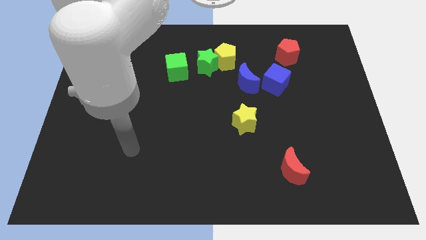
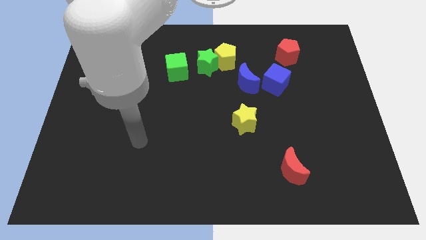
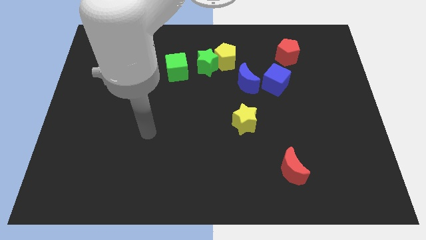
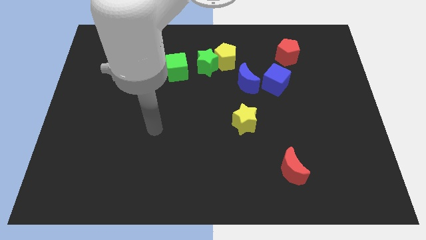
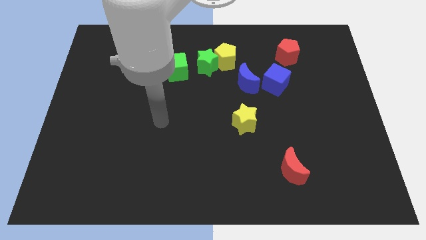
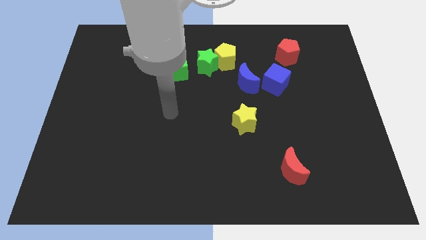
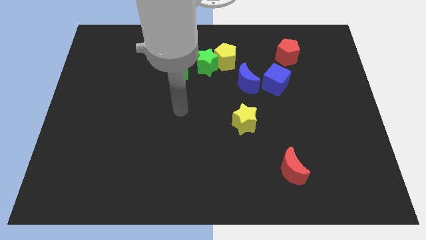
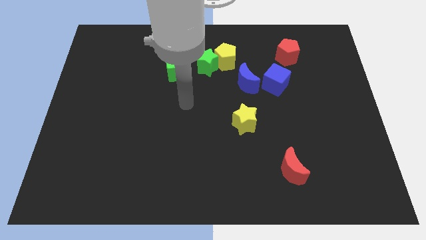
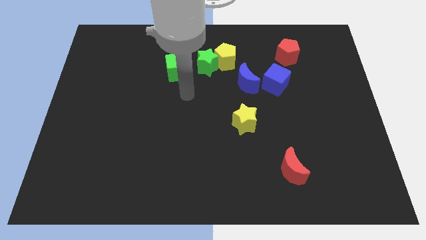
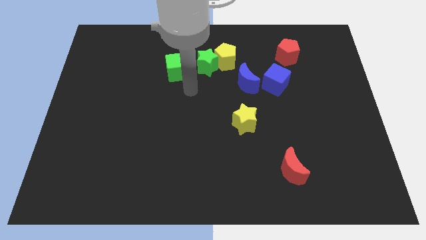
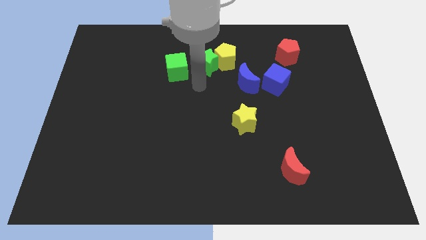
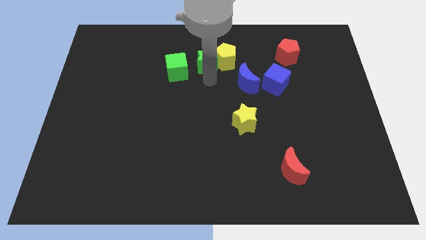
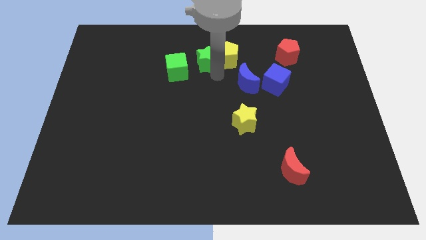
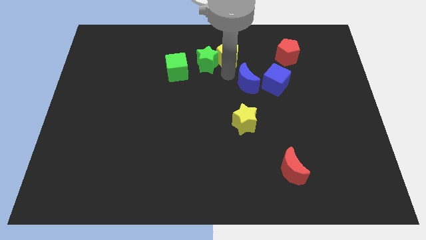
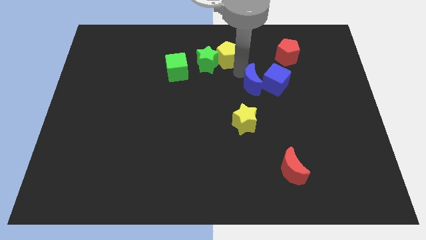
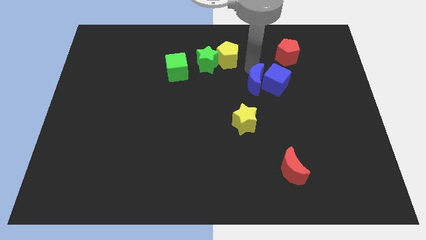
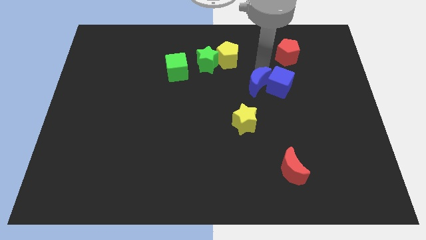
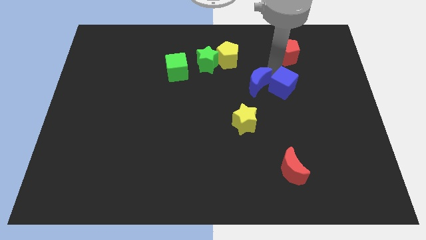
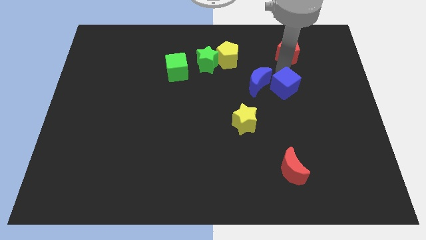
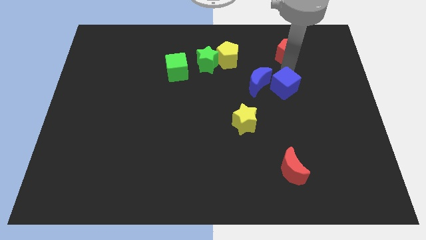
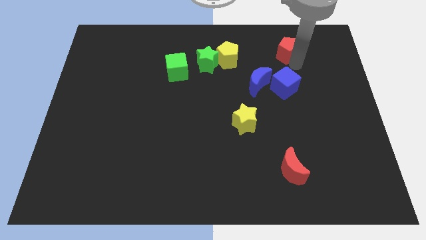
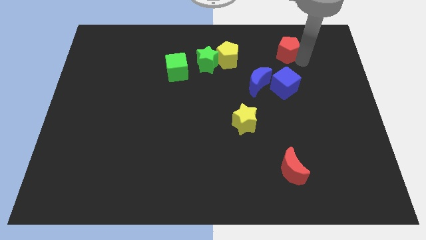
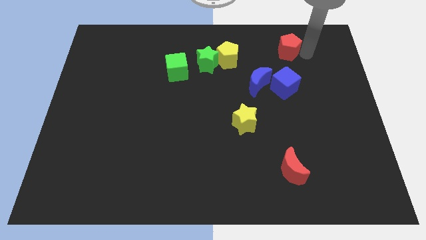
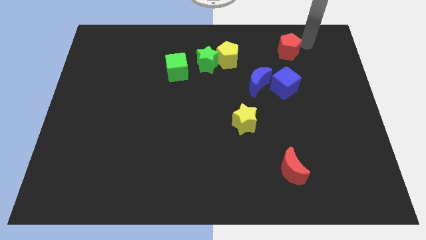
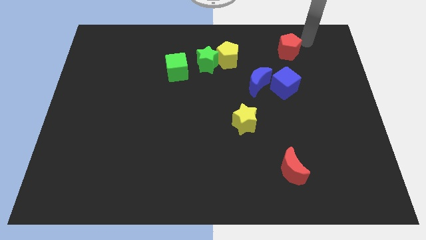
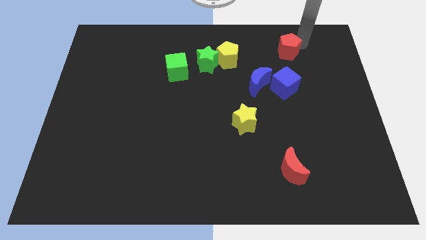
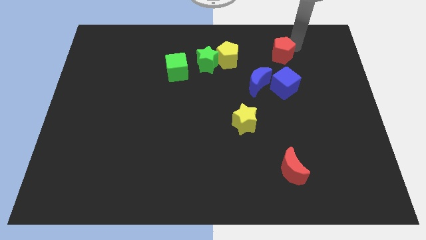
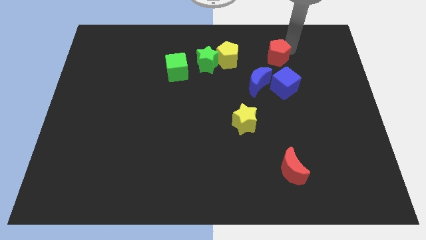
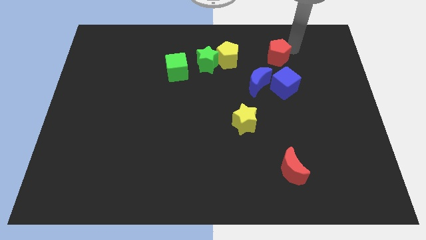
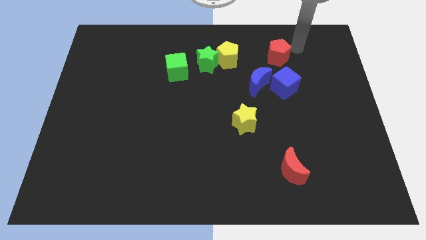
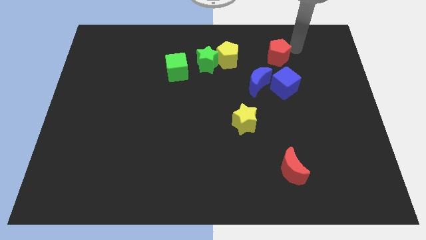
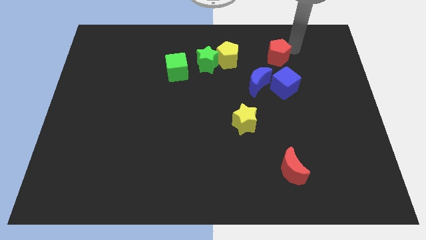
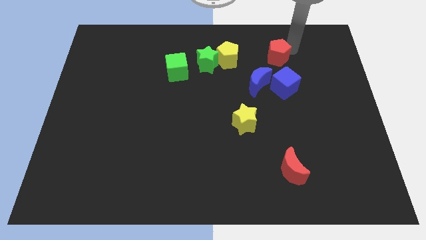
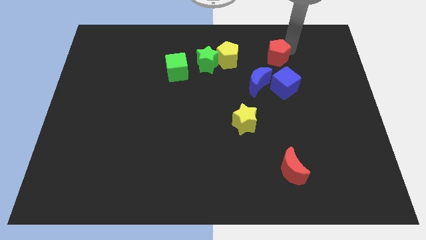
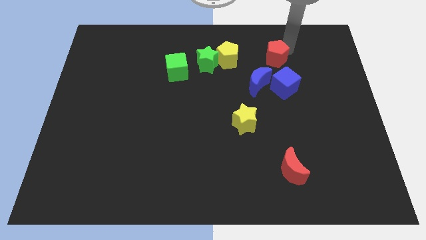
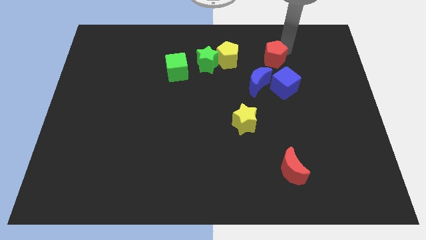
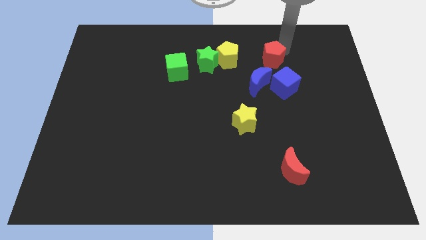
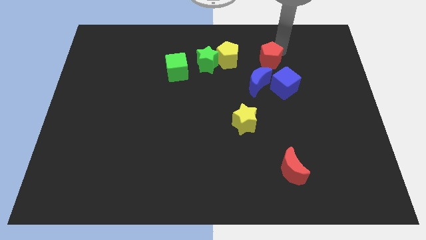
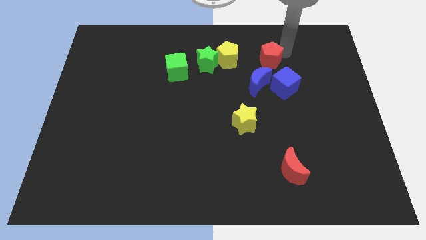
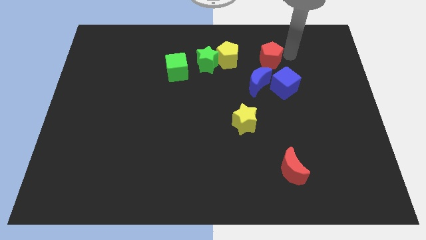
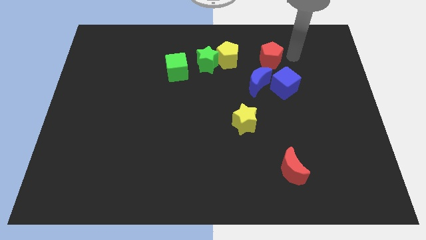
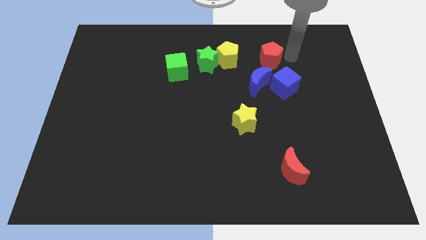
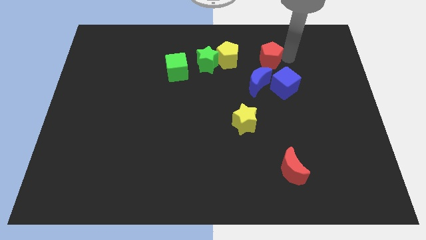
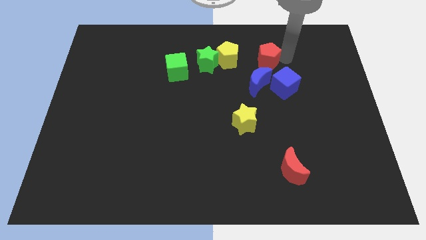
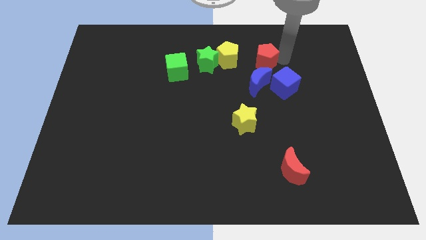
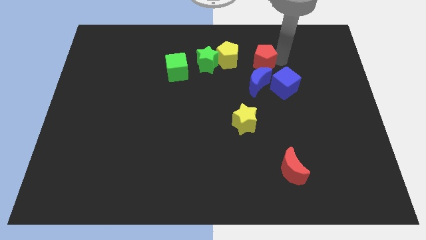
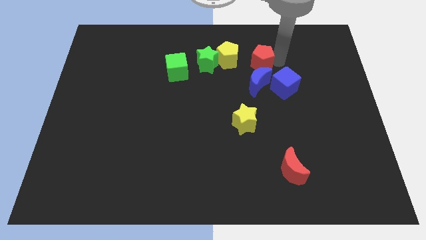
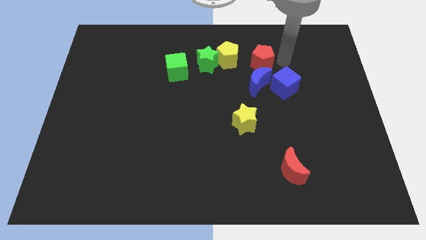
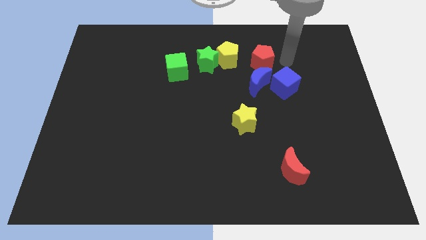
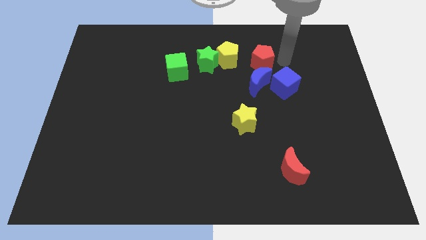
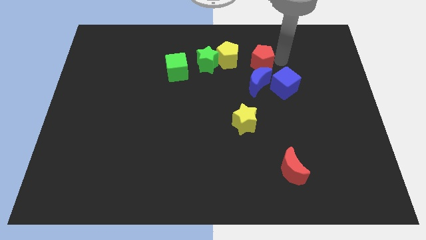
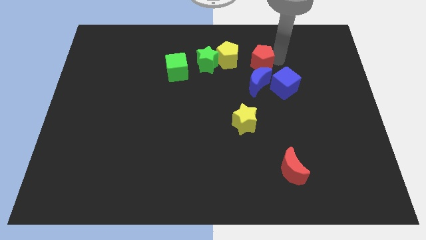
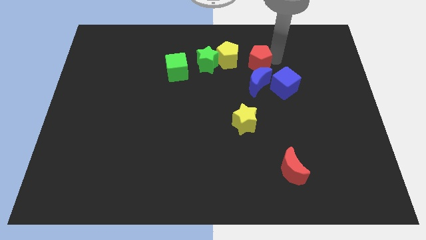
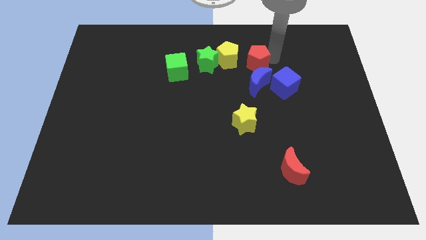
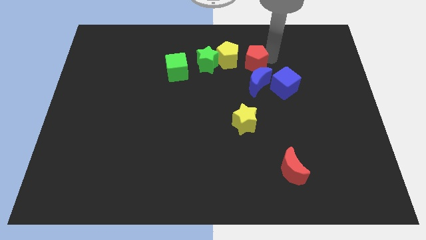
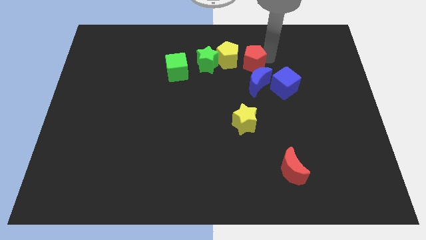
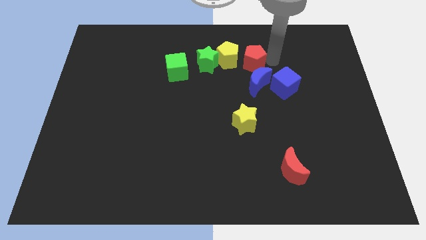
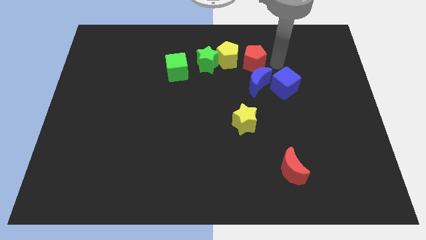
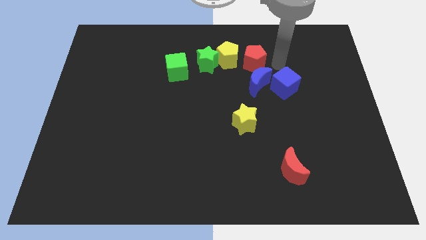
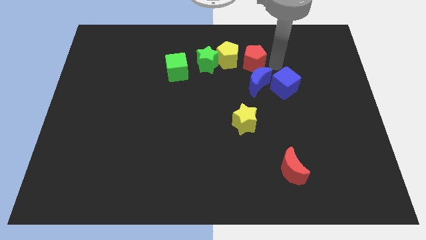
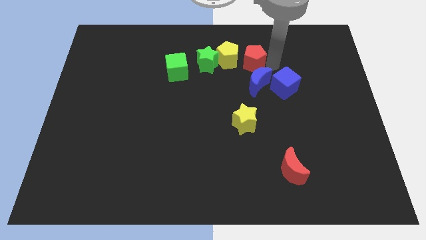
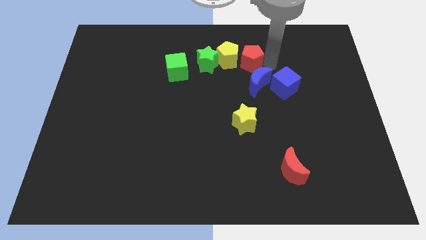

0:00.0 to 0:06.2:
put the red pentagon towards the yellow pentagon

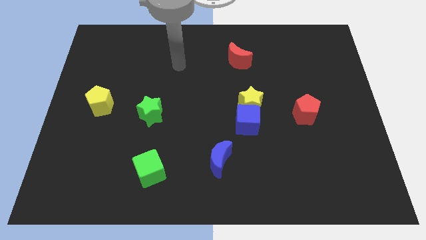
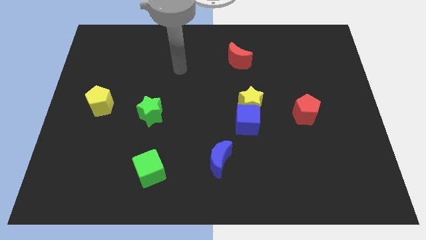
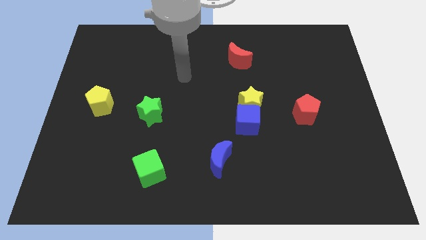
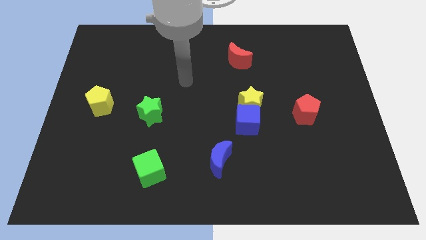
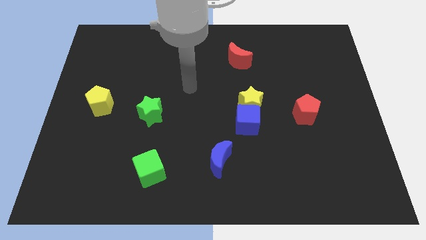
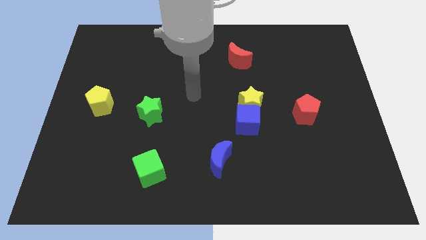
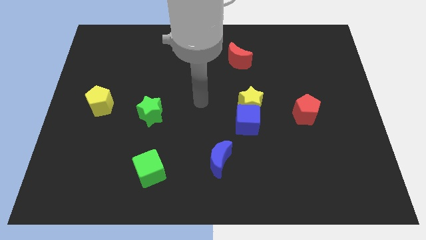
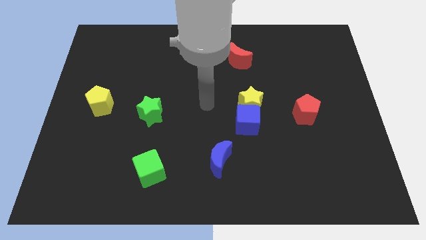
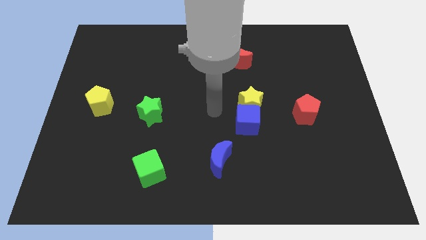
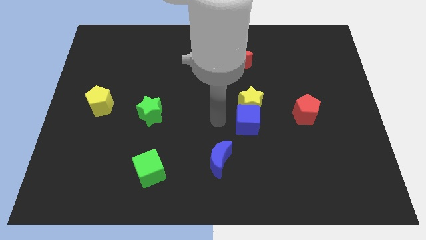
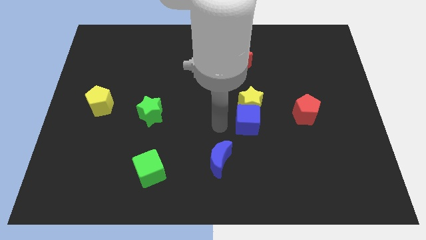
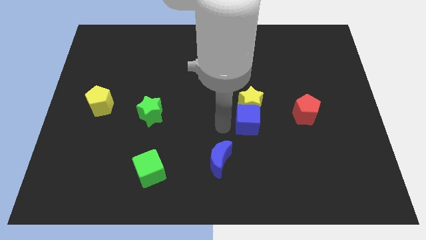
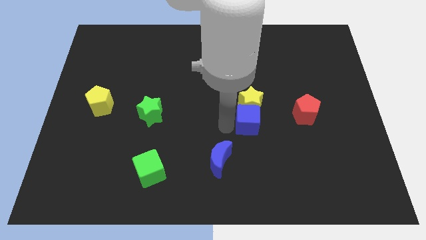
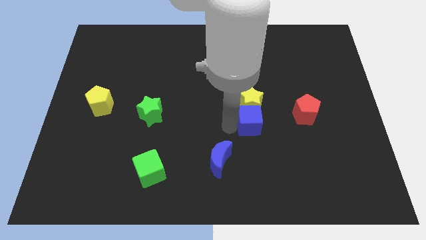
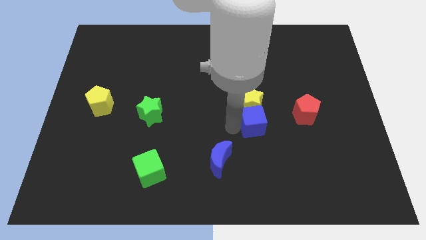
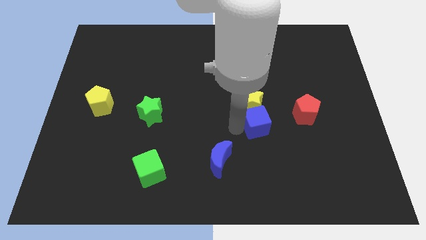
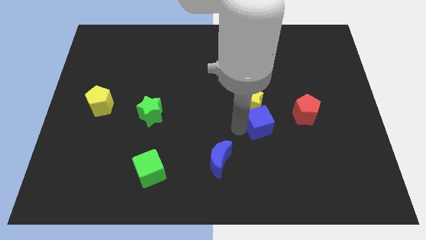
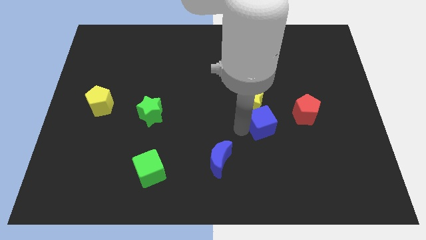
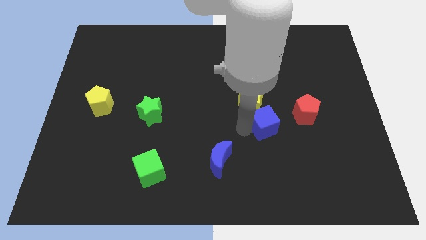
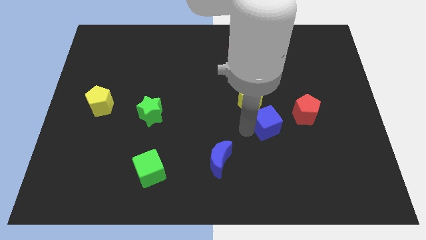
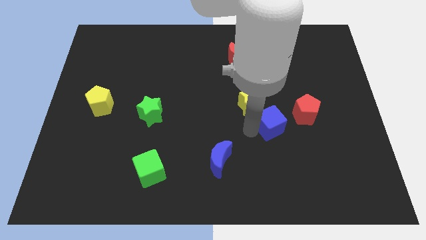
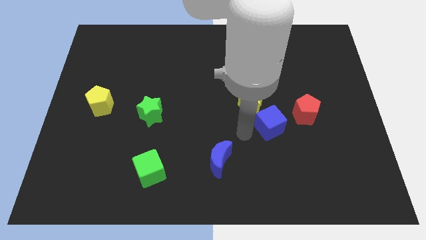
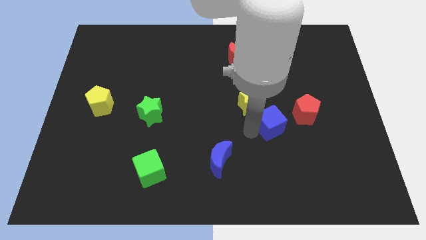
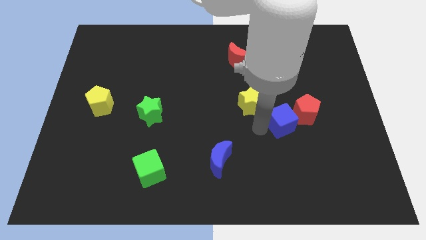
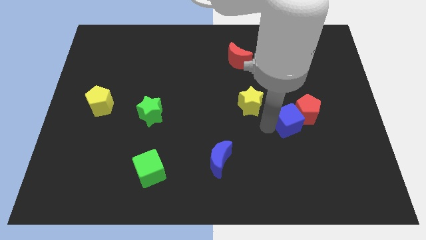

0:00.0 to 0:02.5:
slide the blue cube to the red pentagon
